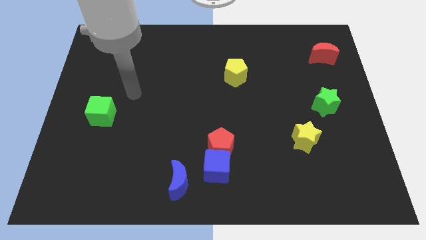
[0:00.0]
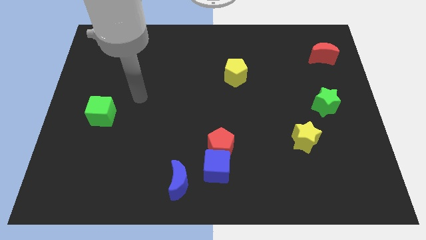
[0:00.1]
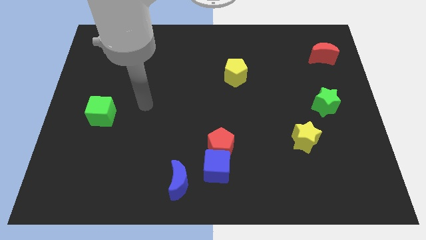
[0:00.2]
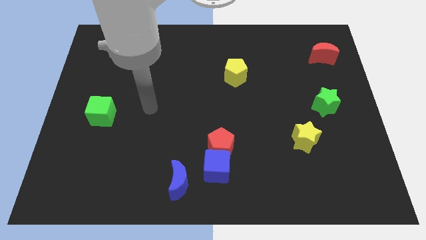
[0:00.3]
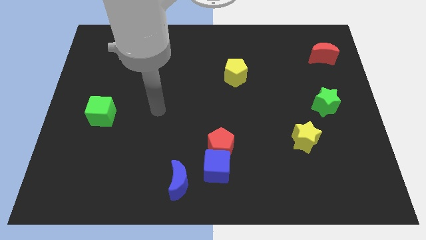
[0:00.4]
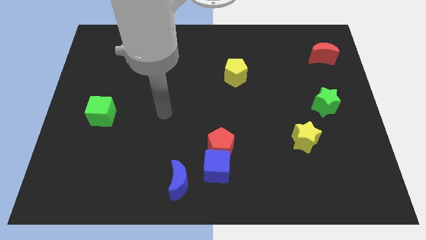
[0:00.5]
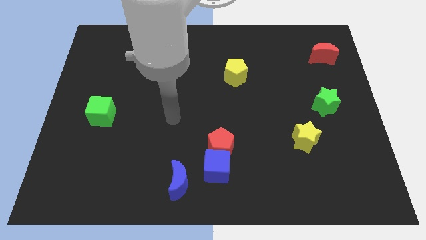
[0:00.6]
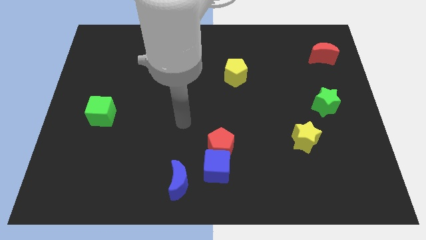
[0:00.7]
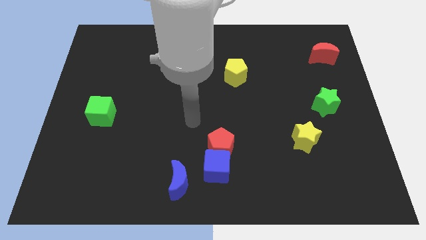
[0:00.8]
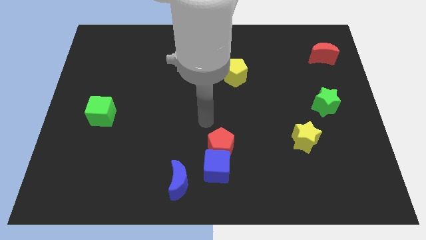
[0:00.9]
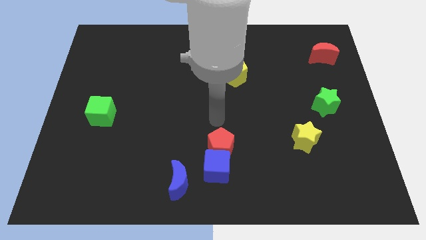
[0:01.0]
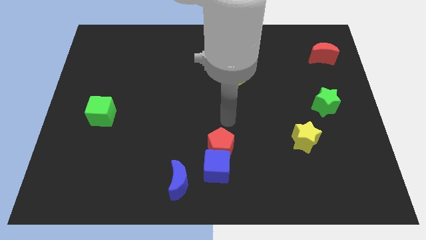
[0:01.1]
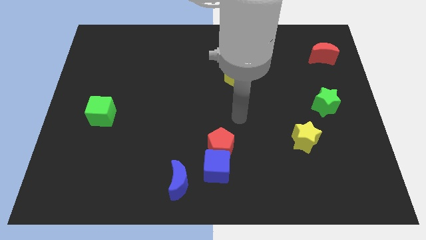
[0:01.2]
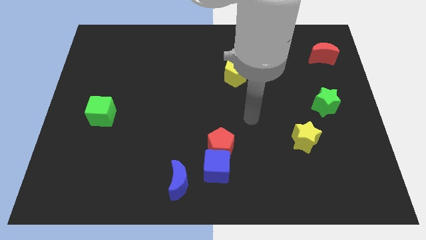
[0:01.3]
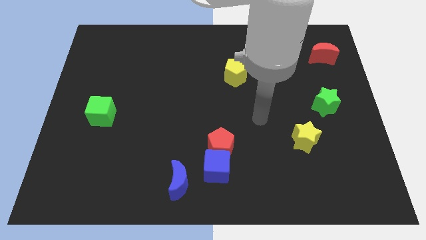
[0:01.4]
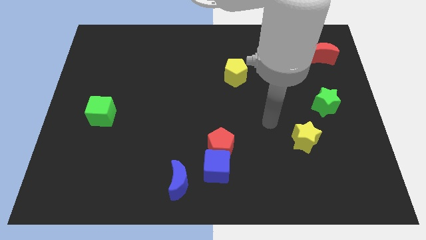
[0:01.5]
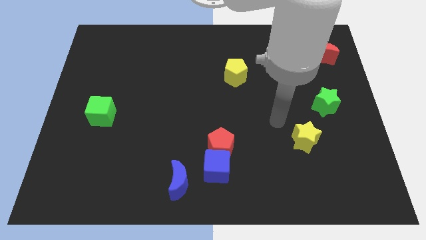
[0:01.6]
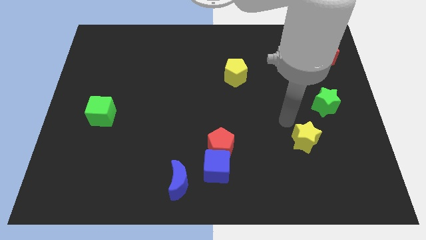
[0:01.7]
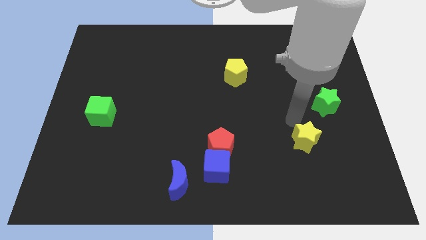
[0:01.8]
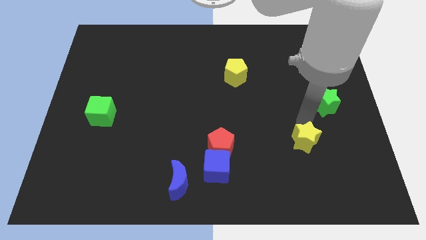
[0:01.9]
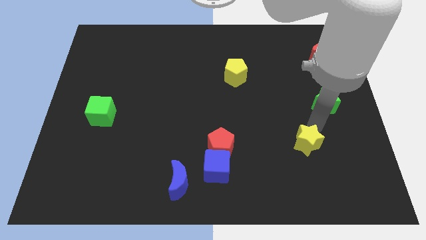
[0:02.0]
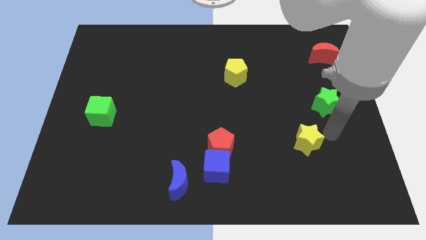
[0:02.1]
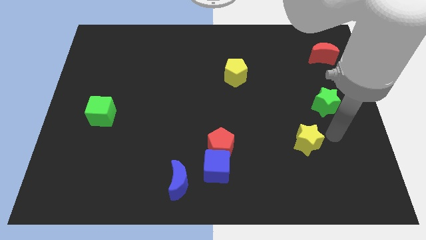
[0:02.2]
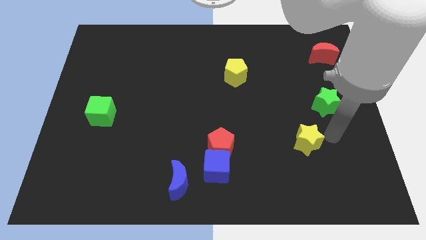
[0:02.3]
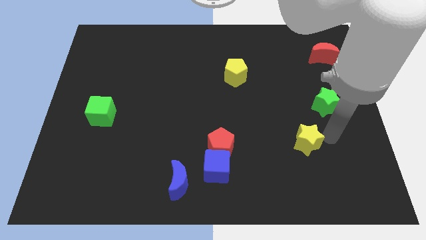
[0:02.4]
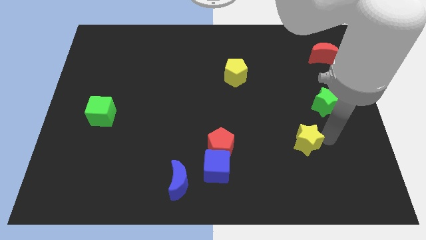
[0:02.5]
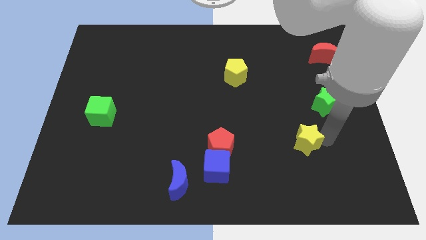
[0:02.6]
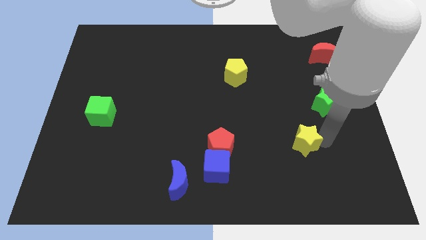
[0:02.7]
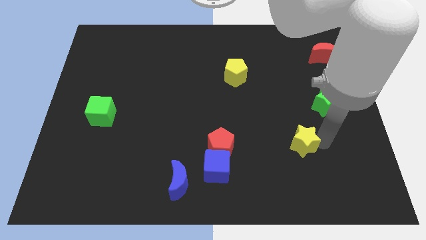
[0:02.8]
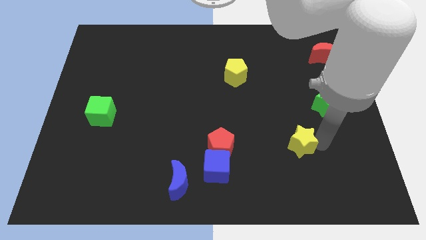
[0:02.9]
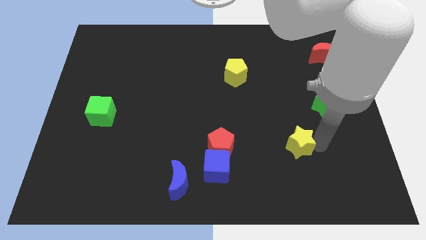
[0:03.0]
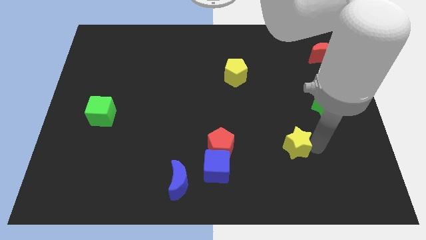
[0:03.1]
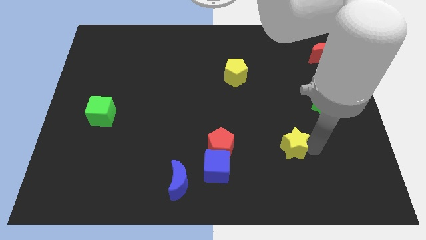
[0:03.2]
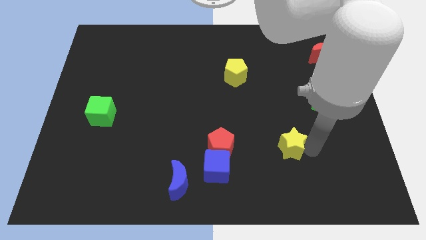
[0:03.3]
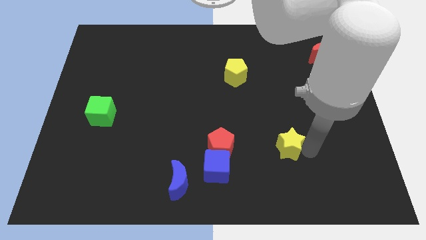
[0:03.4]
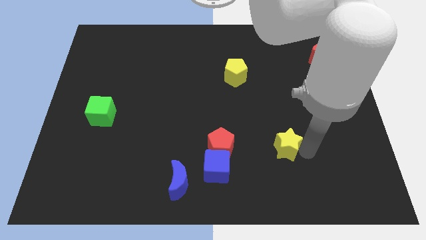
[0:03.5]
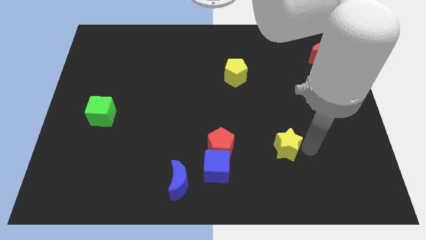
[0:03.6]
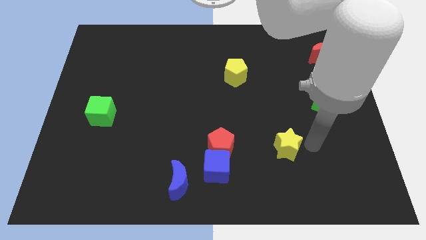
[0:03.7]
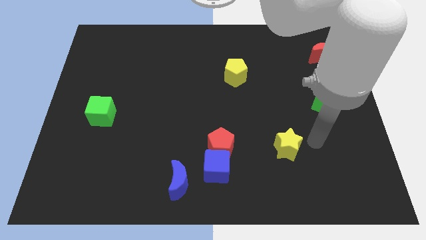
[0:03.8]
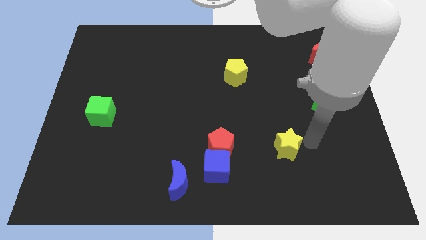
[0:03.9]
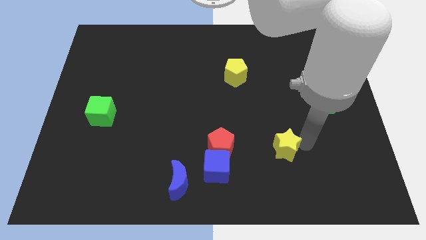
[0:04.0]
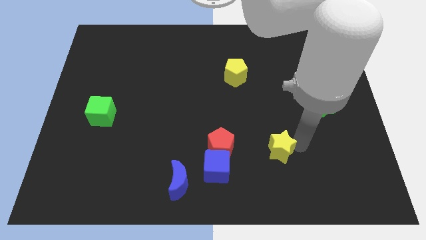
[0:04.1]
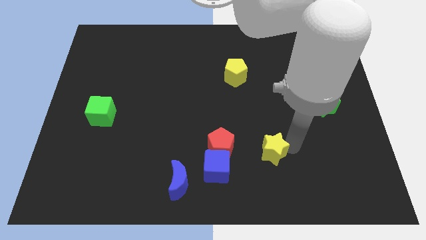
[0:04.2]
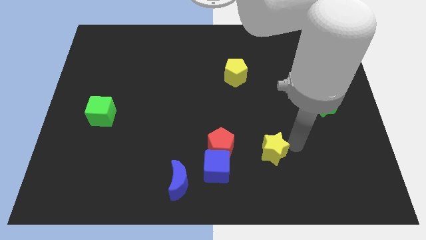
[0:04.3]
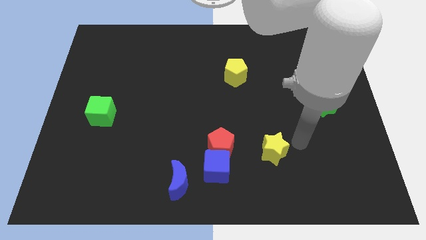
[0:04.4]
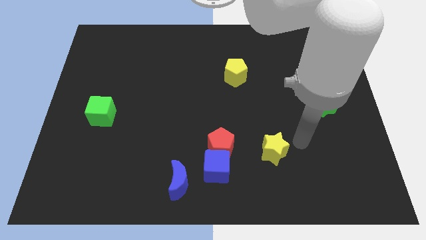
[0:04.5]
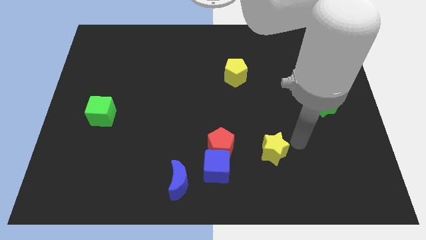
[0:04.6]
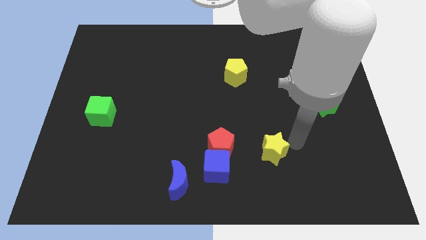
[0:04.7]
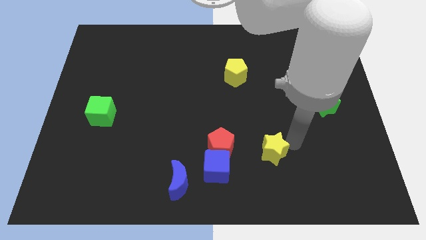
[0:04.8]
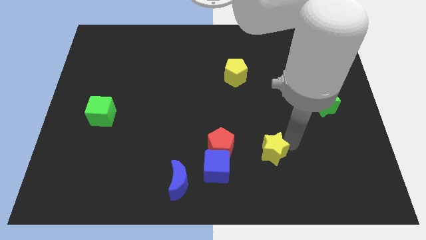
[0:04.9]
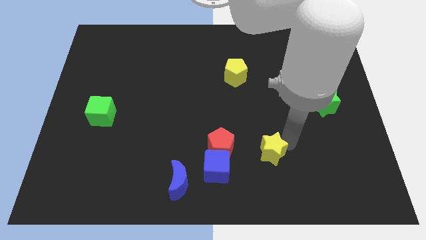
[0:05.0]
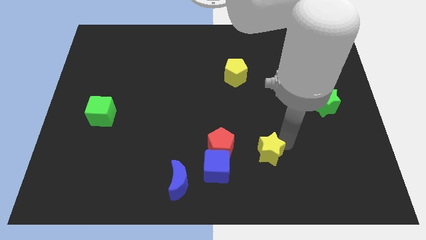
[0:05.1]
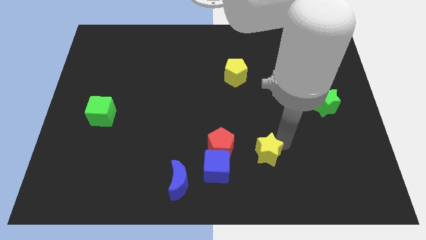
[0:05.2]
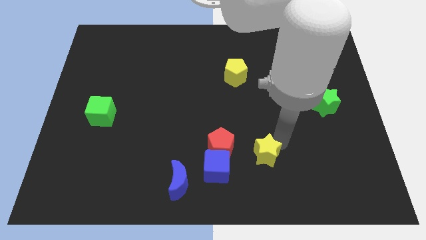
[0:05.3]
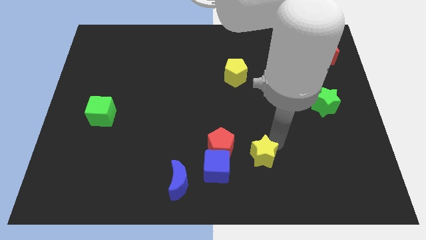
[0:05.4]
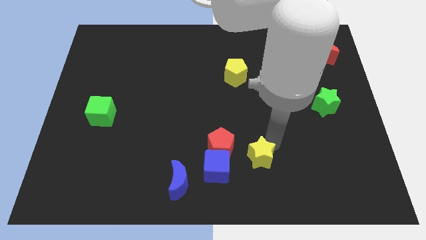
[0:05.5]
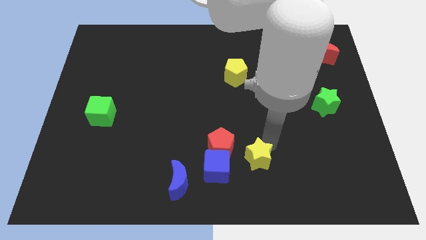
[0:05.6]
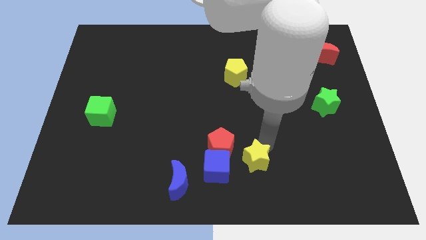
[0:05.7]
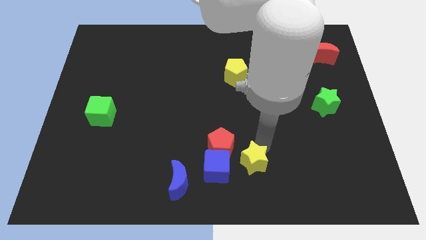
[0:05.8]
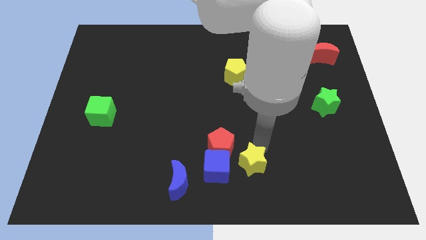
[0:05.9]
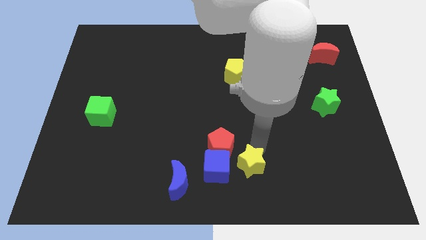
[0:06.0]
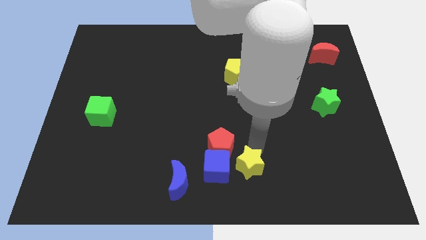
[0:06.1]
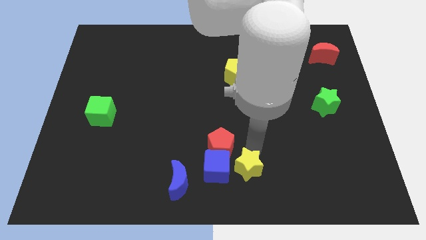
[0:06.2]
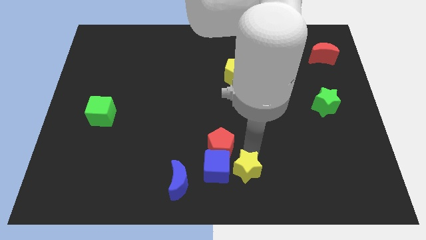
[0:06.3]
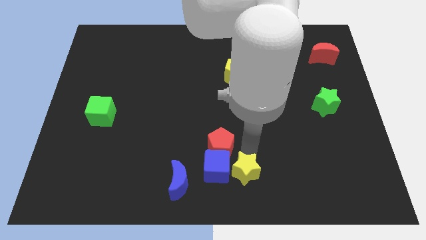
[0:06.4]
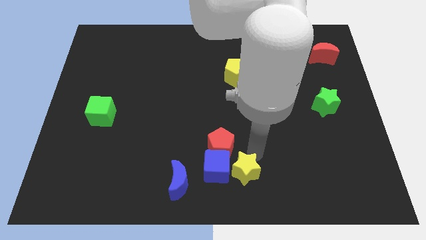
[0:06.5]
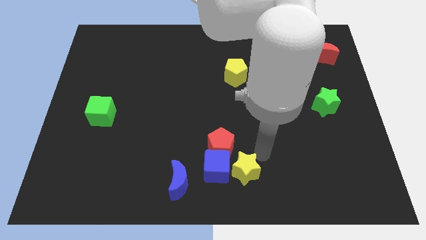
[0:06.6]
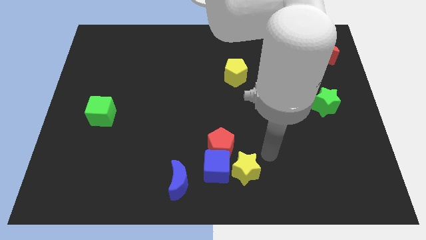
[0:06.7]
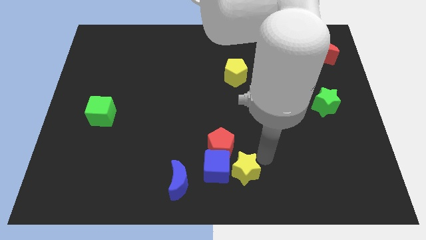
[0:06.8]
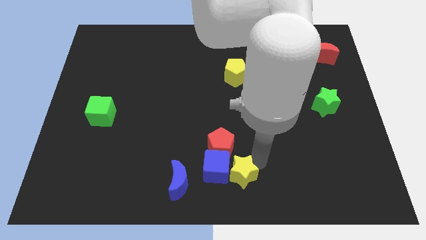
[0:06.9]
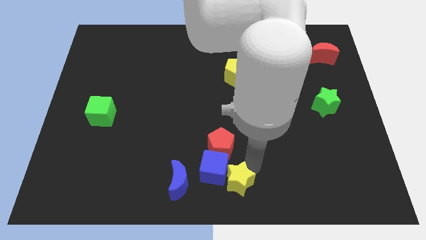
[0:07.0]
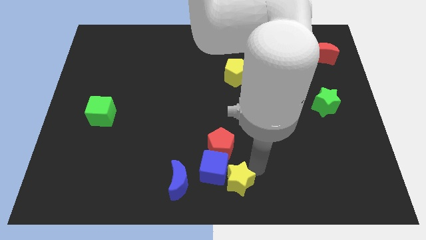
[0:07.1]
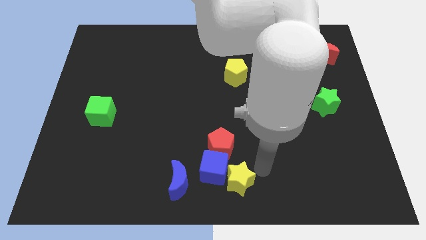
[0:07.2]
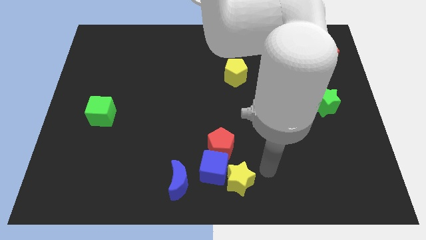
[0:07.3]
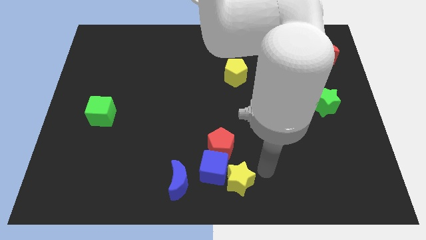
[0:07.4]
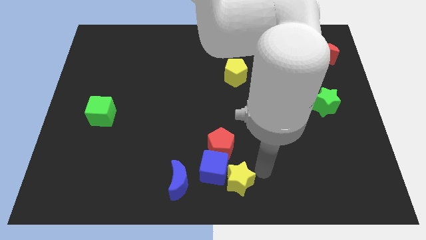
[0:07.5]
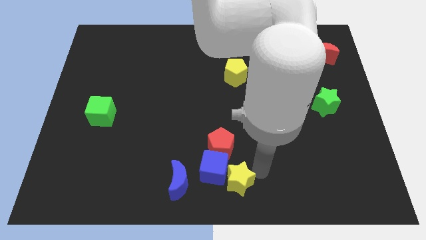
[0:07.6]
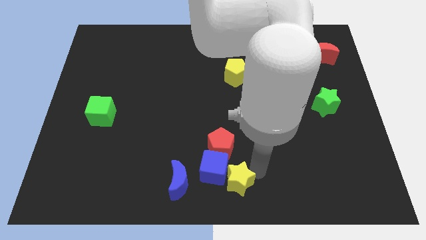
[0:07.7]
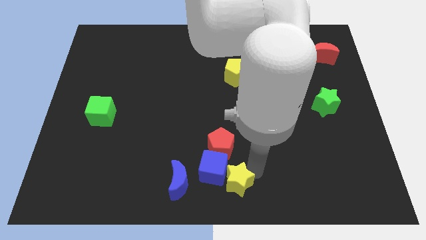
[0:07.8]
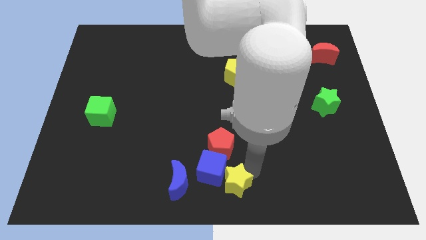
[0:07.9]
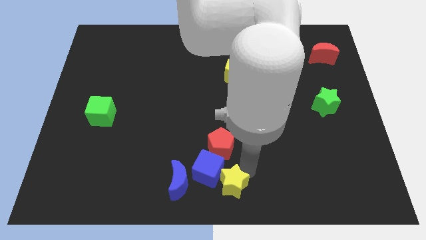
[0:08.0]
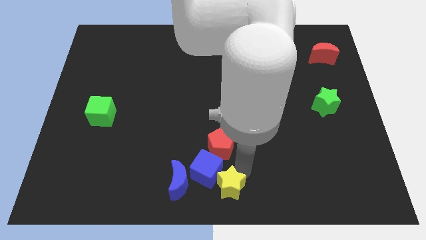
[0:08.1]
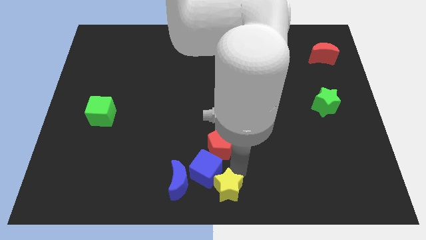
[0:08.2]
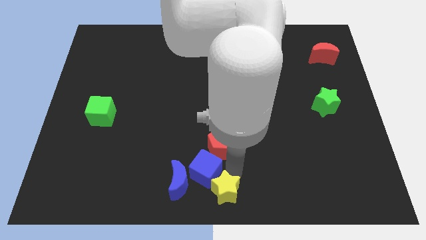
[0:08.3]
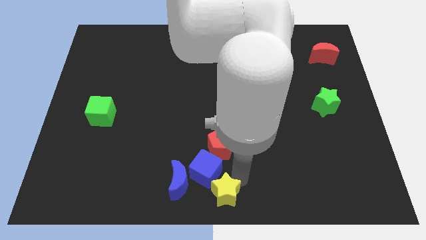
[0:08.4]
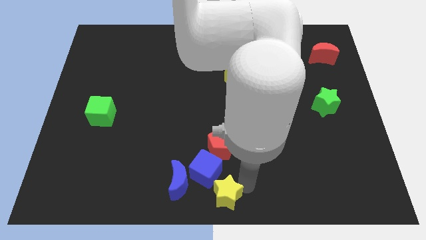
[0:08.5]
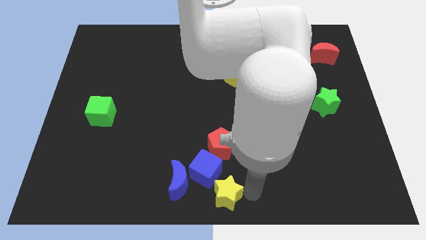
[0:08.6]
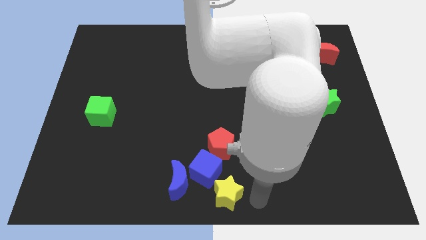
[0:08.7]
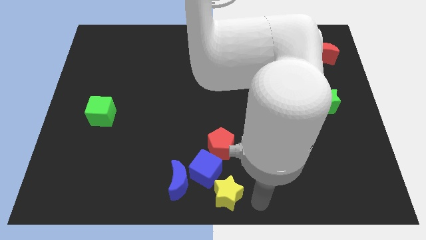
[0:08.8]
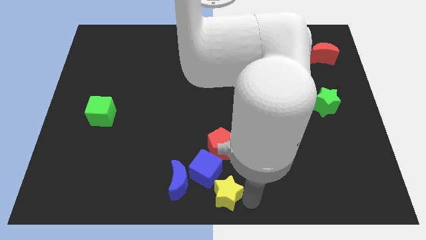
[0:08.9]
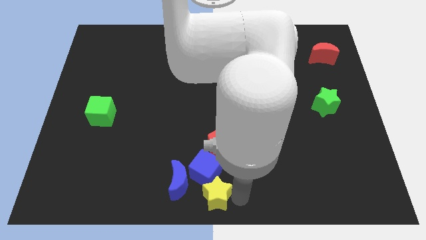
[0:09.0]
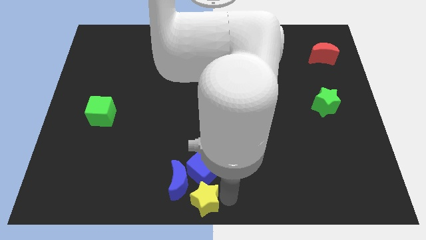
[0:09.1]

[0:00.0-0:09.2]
move the yellow star next to the blue moon
